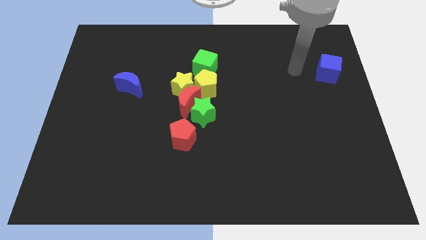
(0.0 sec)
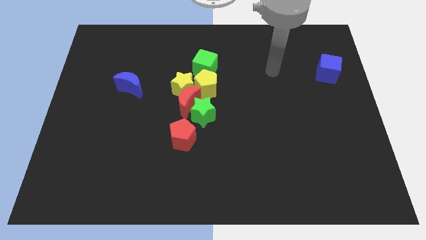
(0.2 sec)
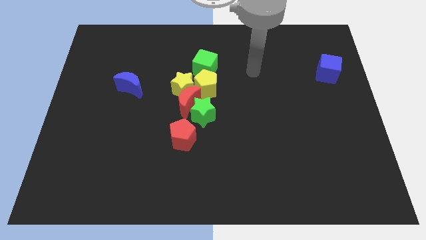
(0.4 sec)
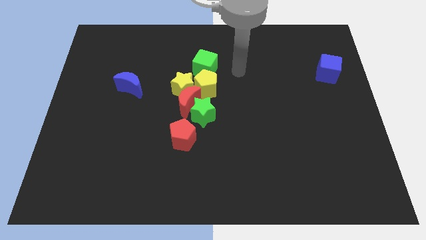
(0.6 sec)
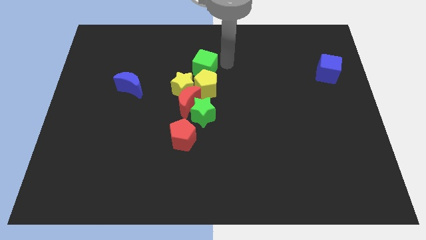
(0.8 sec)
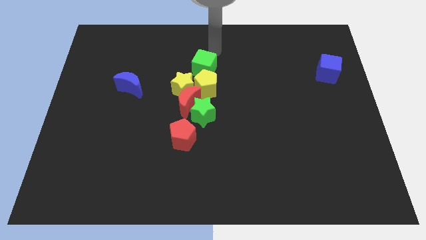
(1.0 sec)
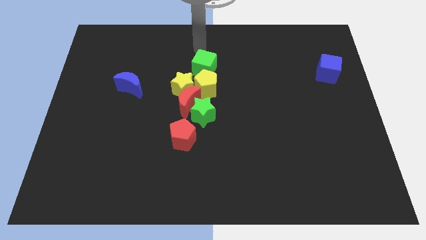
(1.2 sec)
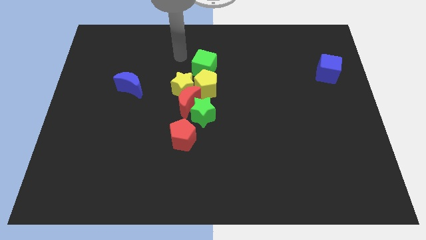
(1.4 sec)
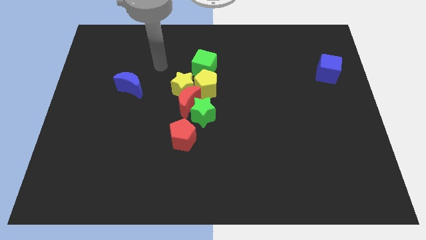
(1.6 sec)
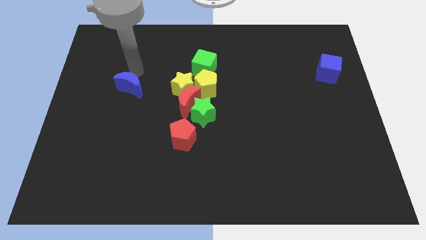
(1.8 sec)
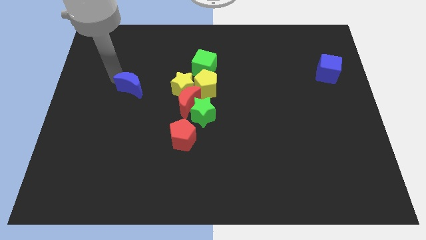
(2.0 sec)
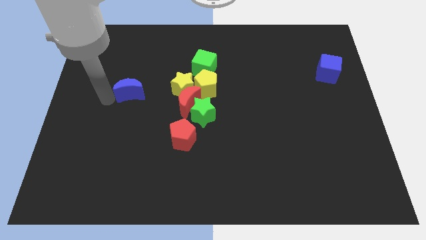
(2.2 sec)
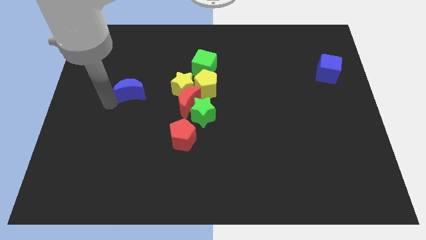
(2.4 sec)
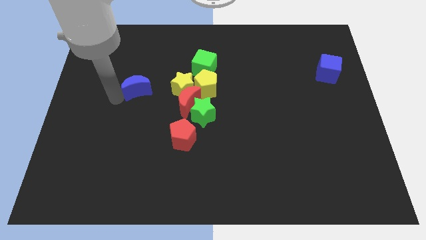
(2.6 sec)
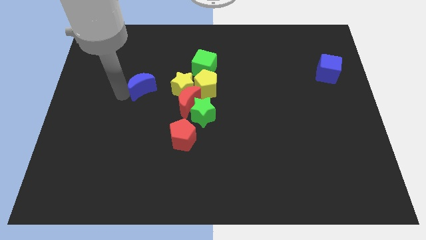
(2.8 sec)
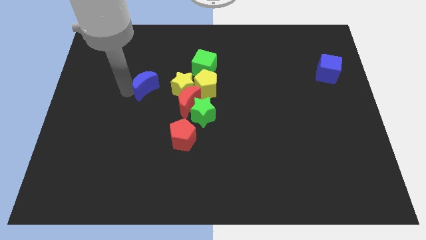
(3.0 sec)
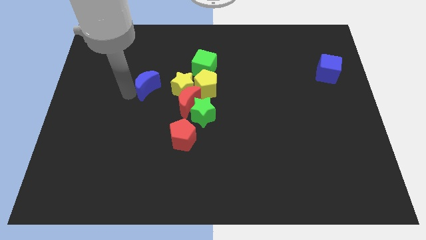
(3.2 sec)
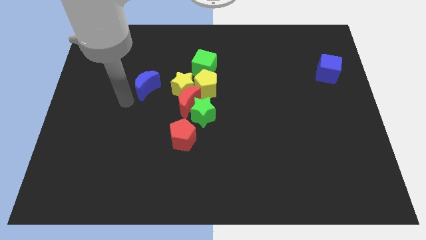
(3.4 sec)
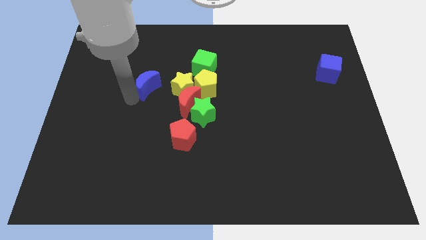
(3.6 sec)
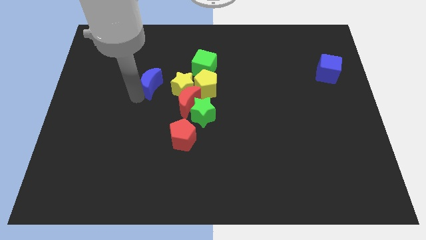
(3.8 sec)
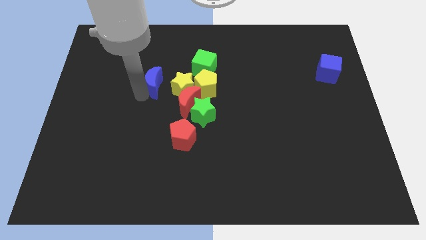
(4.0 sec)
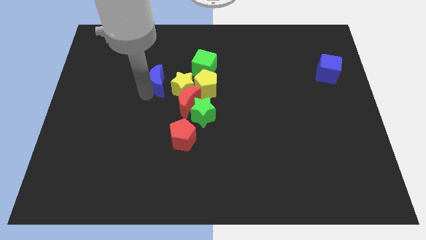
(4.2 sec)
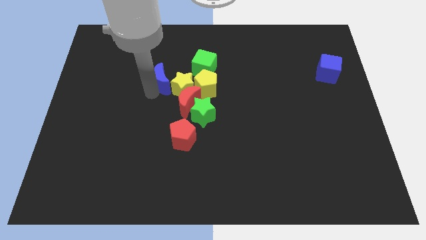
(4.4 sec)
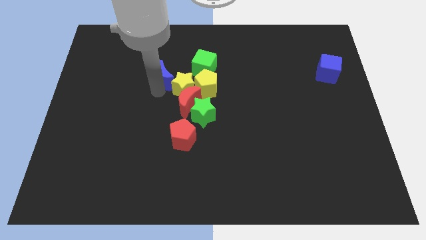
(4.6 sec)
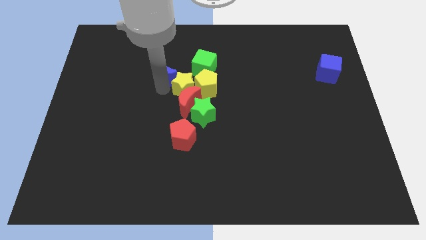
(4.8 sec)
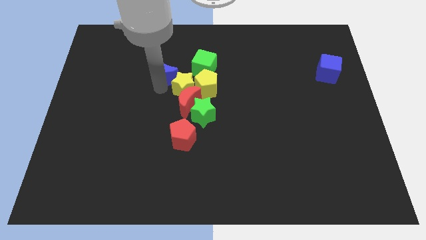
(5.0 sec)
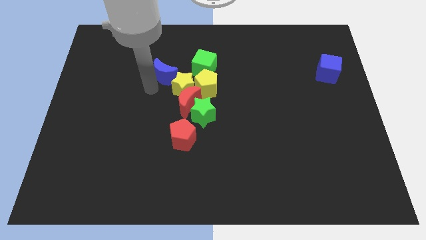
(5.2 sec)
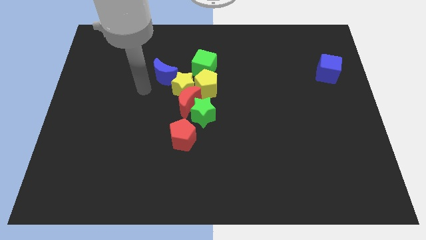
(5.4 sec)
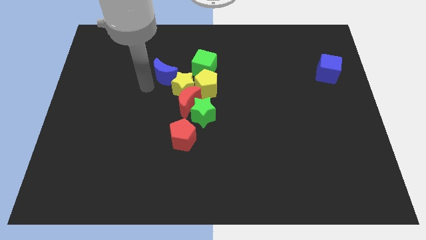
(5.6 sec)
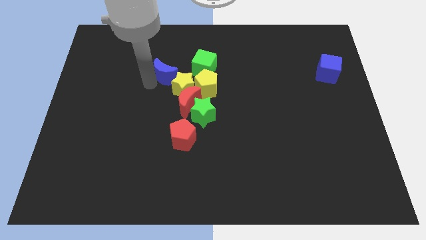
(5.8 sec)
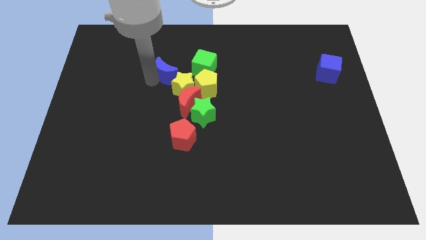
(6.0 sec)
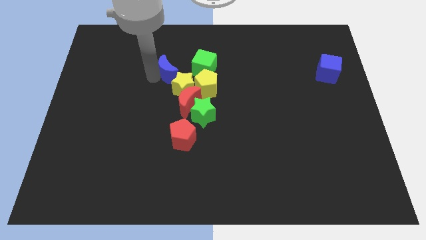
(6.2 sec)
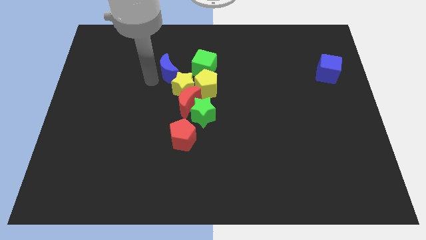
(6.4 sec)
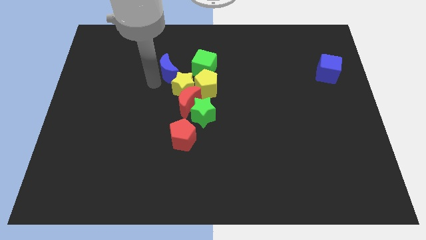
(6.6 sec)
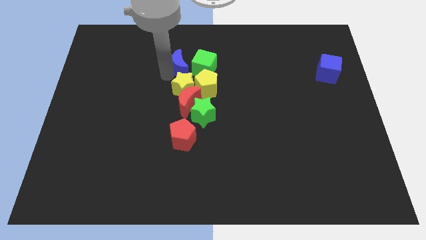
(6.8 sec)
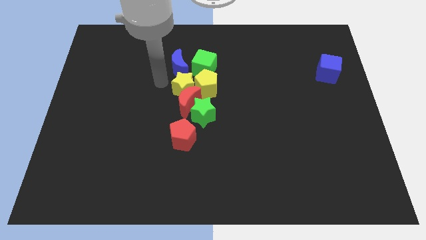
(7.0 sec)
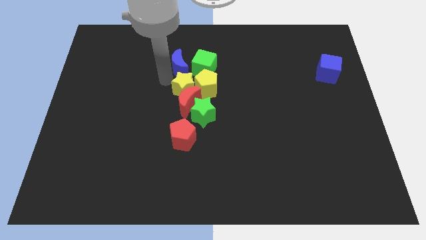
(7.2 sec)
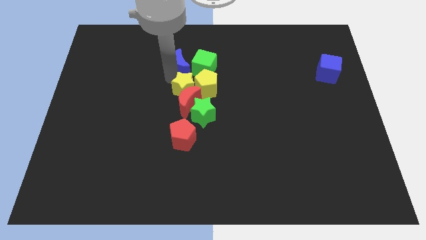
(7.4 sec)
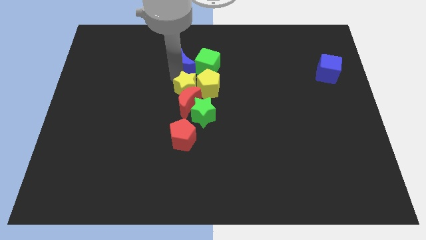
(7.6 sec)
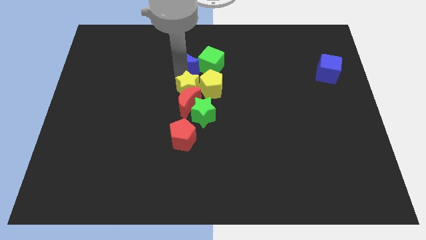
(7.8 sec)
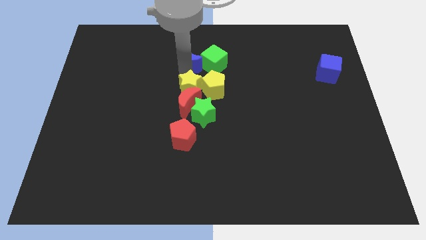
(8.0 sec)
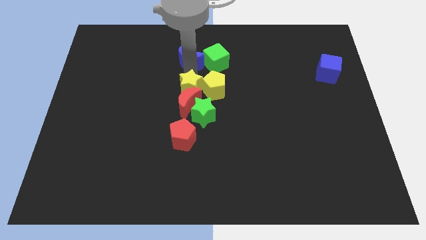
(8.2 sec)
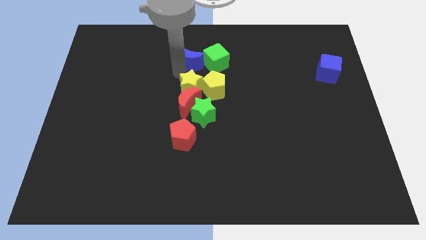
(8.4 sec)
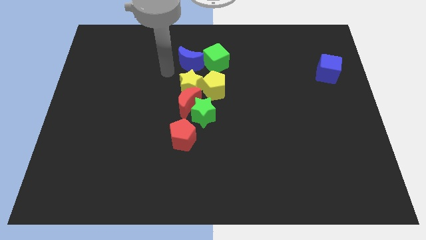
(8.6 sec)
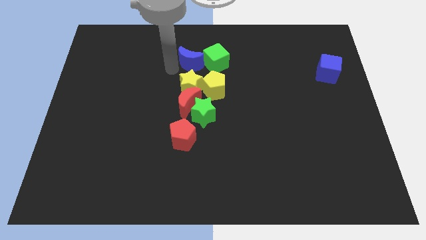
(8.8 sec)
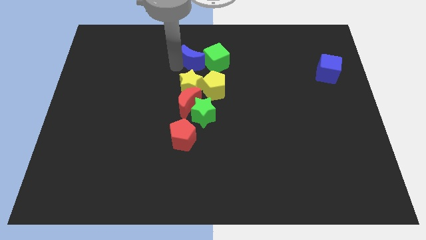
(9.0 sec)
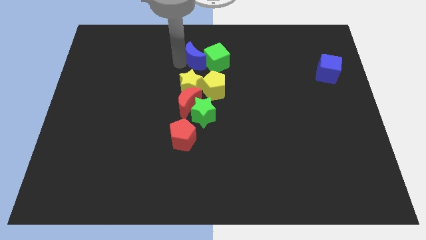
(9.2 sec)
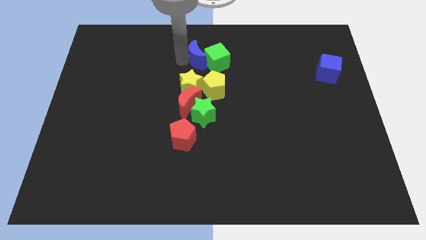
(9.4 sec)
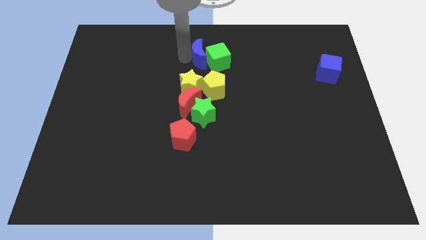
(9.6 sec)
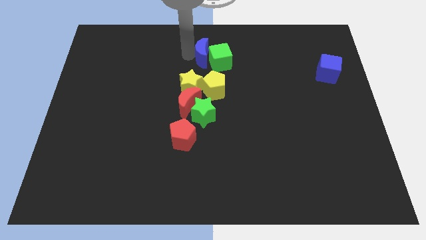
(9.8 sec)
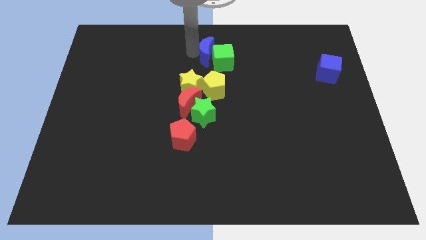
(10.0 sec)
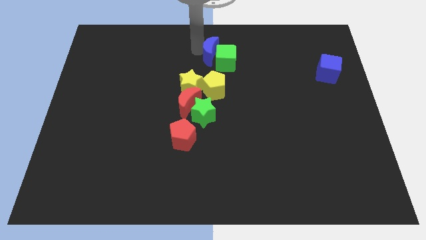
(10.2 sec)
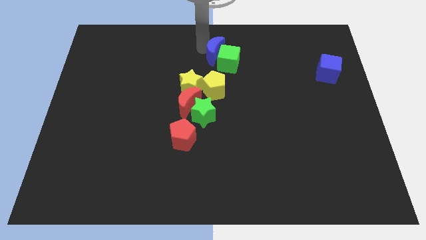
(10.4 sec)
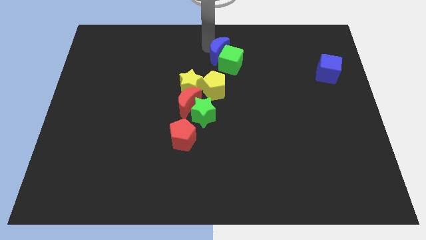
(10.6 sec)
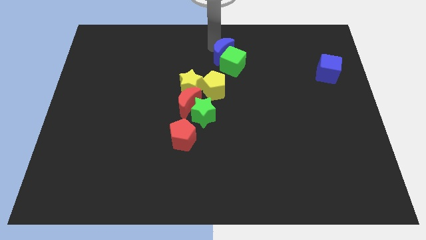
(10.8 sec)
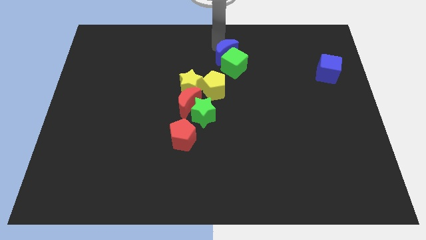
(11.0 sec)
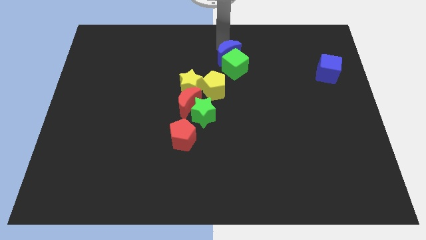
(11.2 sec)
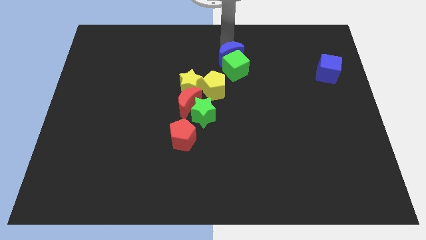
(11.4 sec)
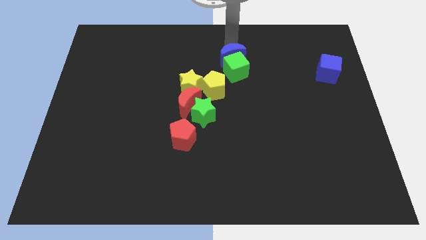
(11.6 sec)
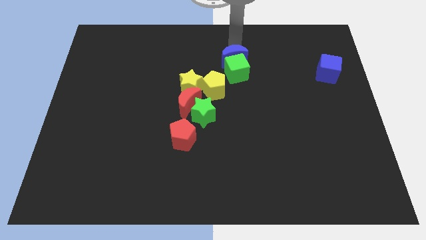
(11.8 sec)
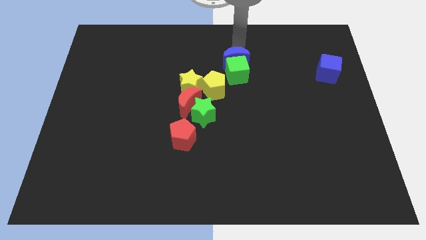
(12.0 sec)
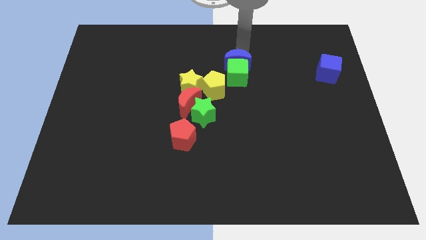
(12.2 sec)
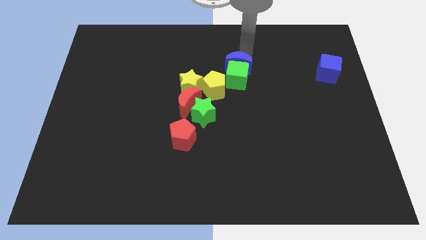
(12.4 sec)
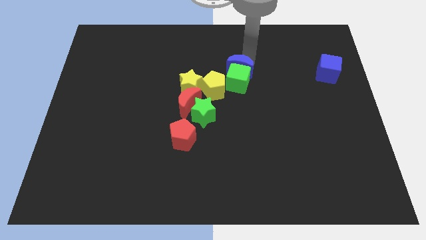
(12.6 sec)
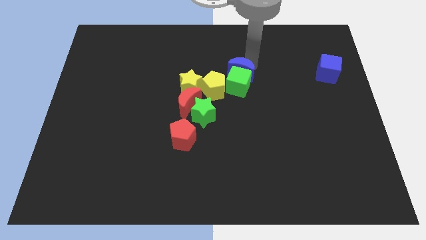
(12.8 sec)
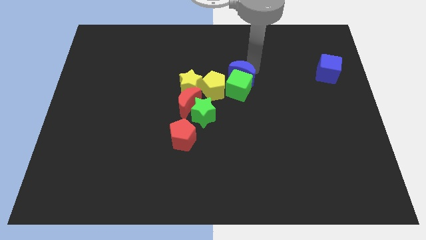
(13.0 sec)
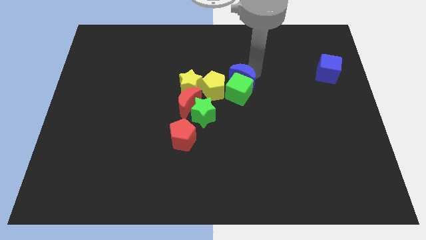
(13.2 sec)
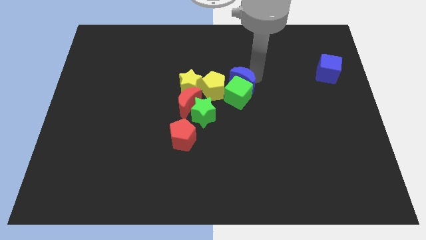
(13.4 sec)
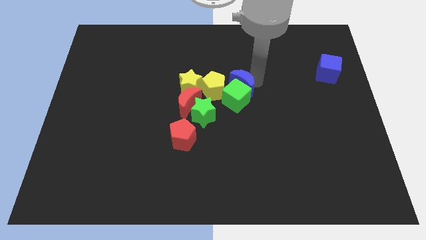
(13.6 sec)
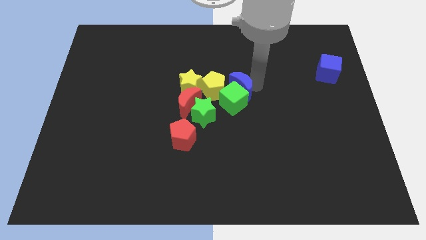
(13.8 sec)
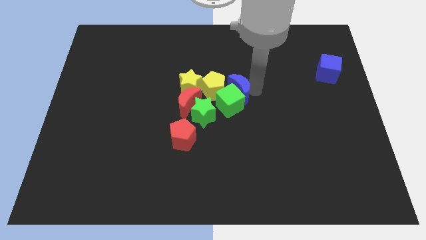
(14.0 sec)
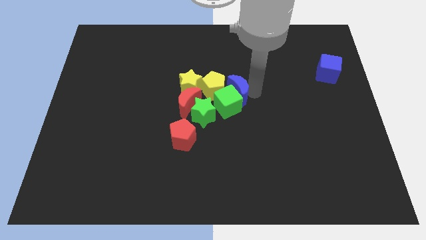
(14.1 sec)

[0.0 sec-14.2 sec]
put the blue moon towards the yellow pentagon
